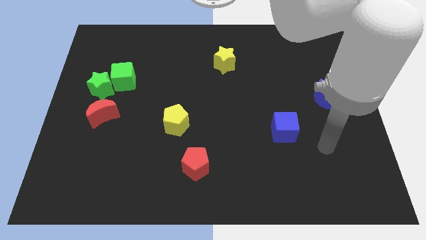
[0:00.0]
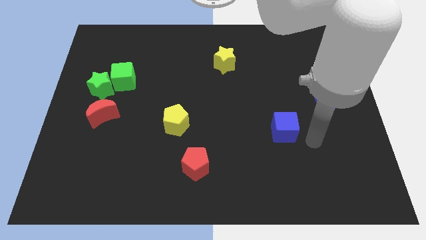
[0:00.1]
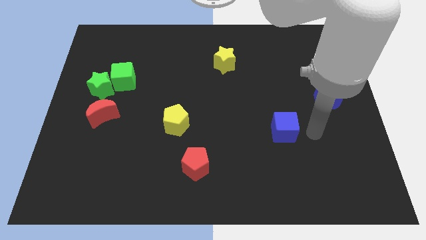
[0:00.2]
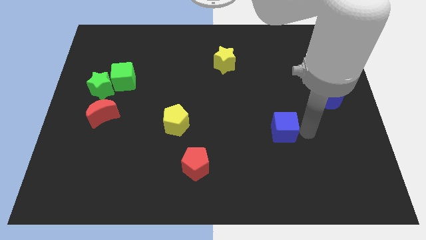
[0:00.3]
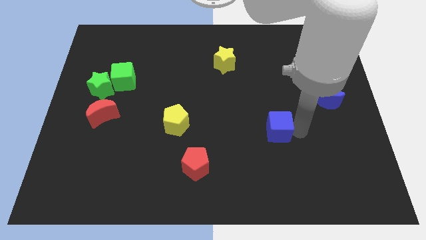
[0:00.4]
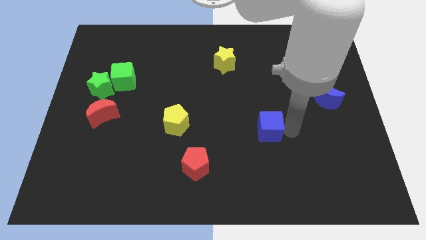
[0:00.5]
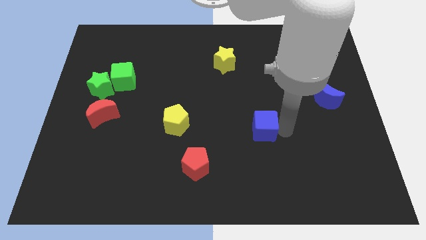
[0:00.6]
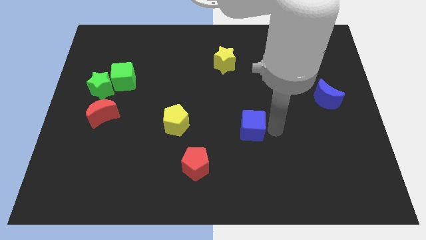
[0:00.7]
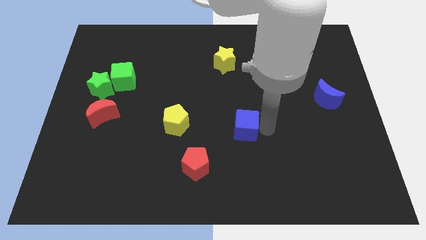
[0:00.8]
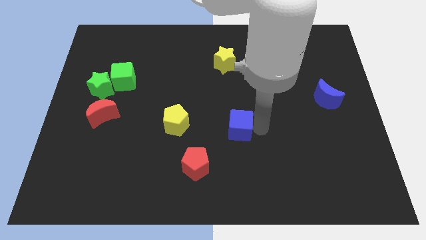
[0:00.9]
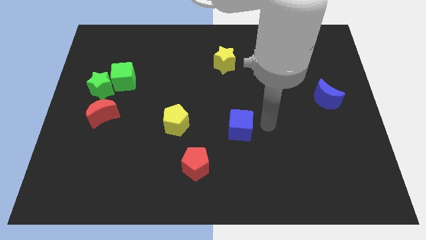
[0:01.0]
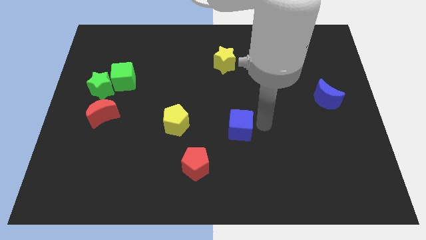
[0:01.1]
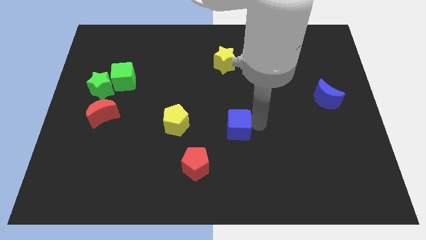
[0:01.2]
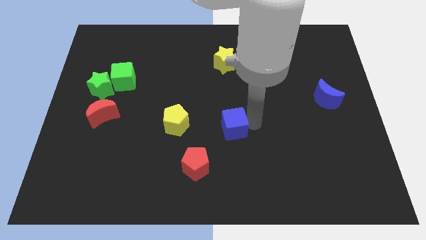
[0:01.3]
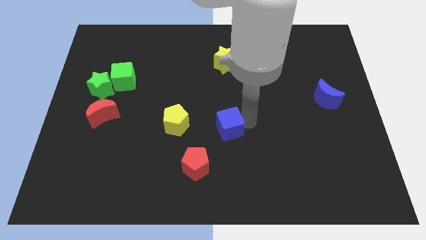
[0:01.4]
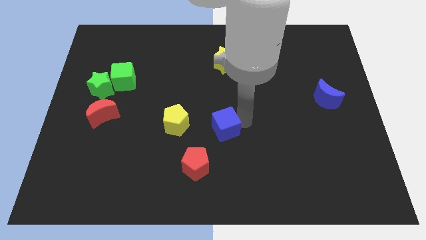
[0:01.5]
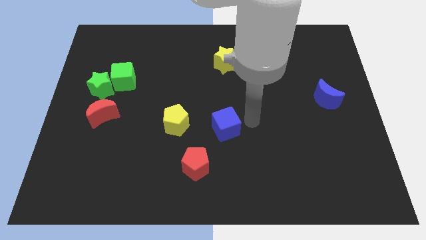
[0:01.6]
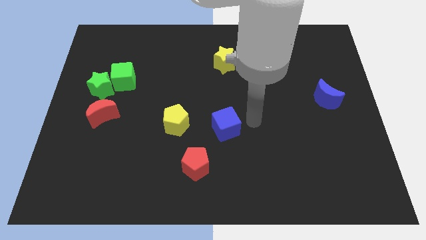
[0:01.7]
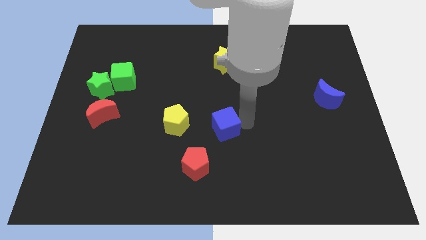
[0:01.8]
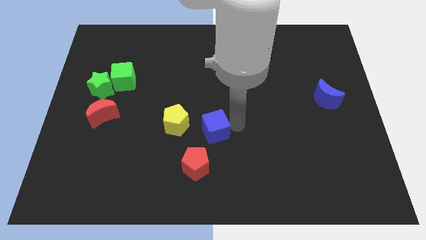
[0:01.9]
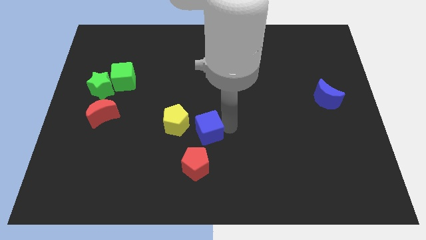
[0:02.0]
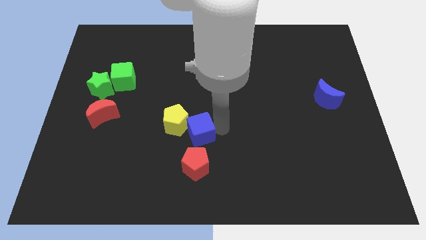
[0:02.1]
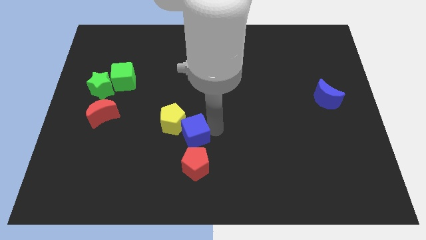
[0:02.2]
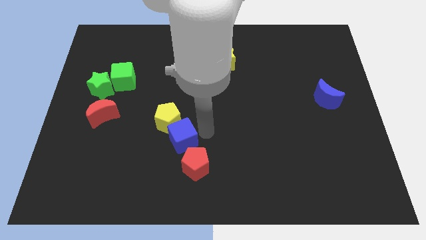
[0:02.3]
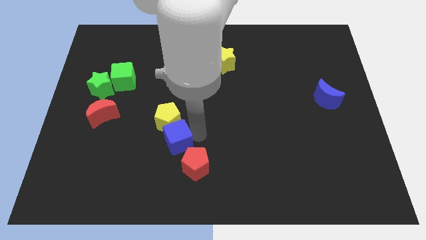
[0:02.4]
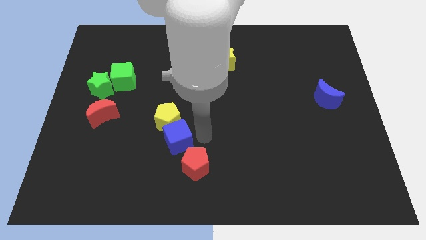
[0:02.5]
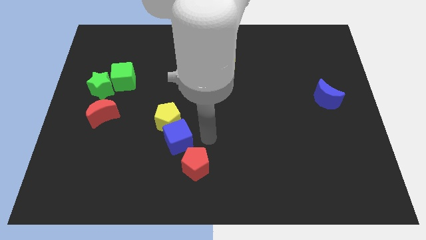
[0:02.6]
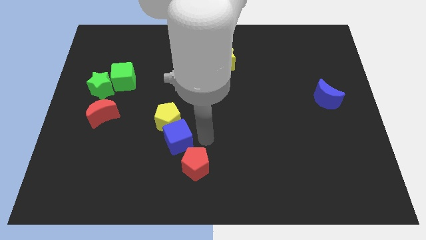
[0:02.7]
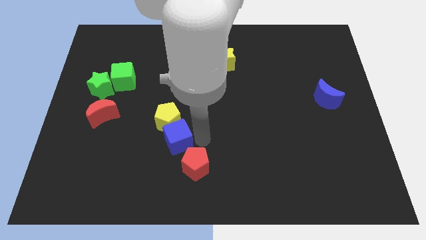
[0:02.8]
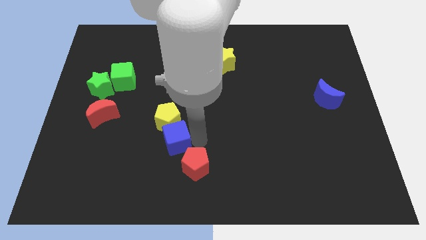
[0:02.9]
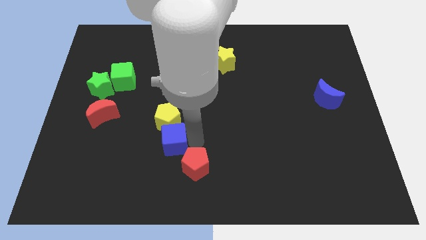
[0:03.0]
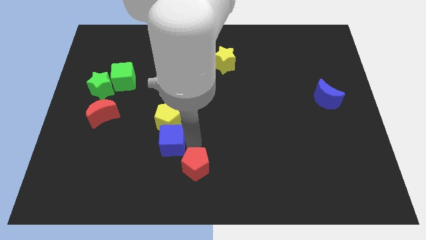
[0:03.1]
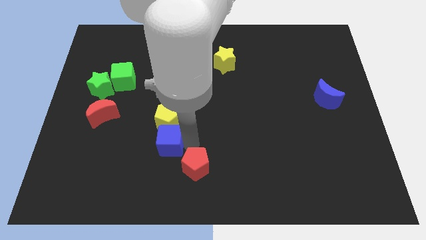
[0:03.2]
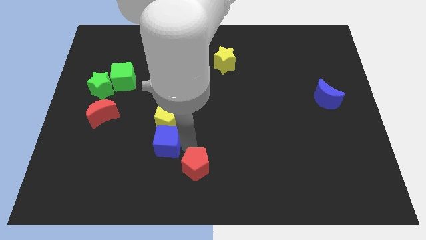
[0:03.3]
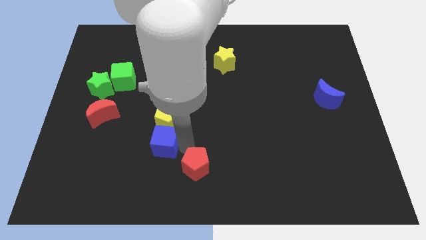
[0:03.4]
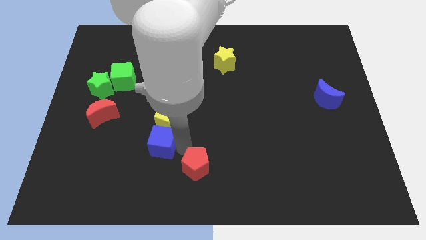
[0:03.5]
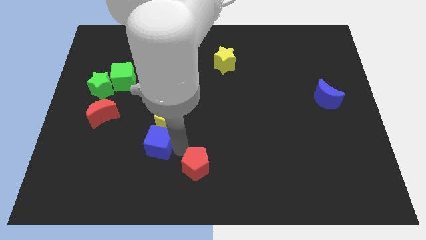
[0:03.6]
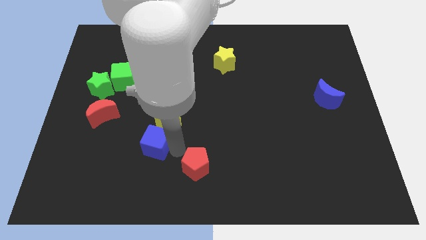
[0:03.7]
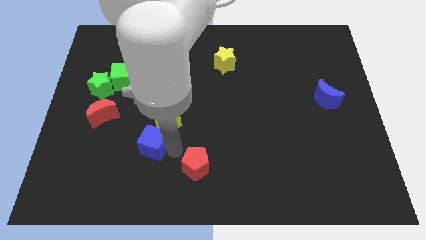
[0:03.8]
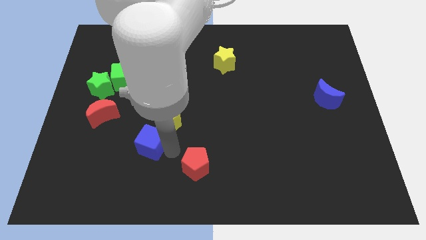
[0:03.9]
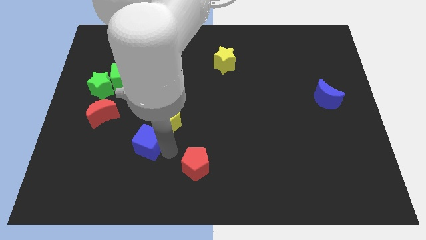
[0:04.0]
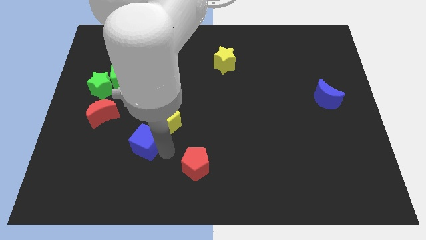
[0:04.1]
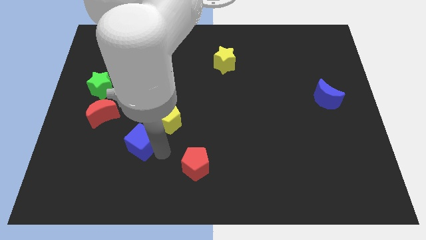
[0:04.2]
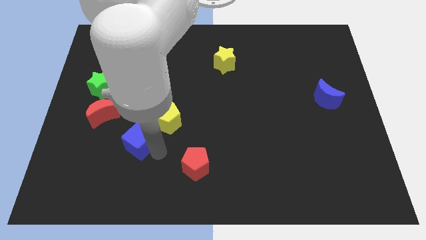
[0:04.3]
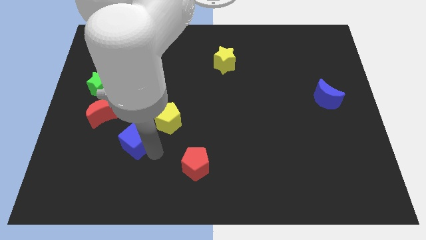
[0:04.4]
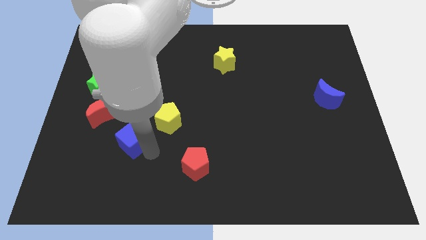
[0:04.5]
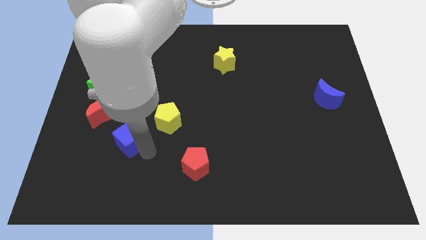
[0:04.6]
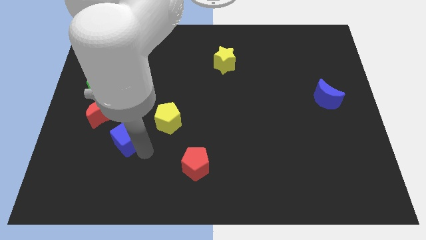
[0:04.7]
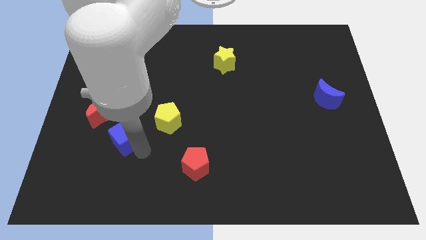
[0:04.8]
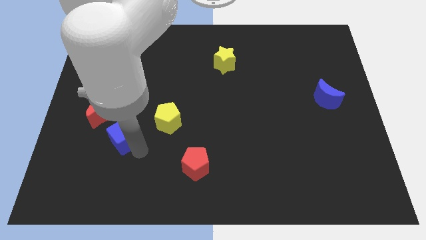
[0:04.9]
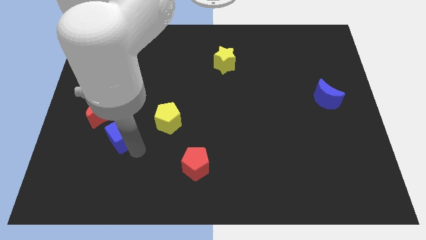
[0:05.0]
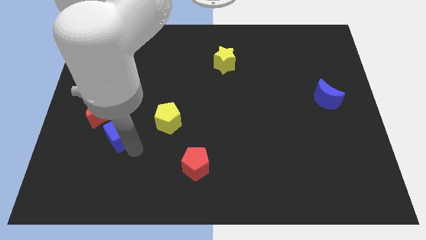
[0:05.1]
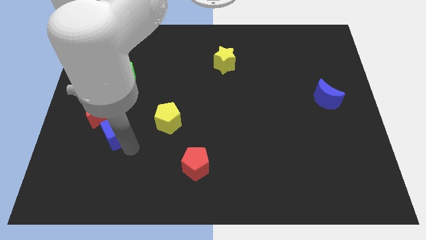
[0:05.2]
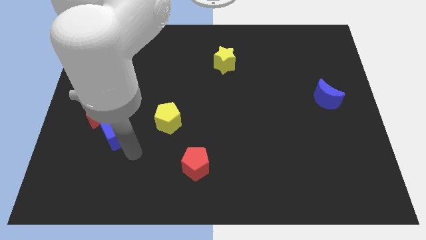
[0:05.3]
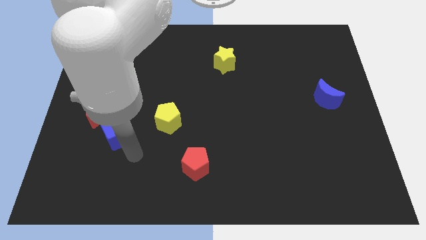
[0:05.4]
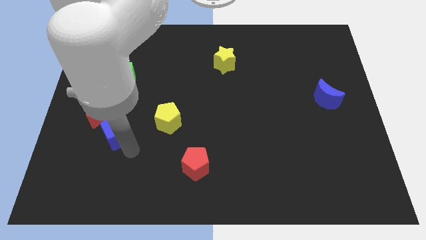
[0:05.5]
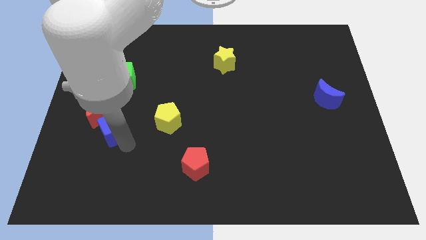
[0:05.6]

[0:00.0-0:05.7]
push the blue cube next to the red moon

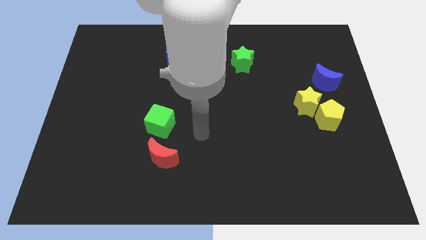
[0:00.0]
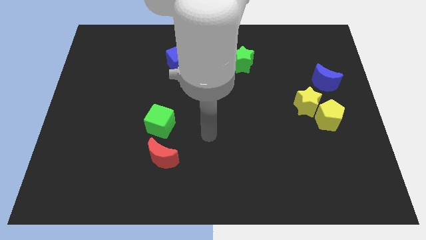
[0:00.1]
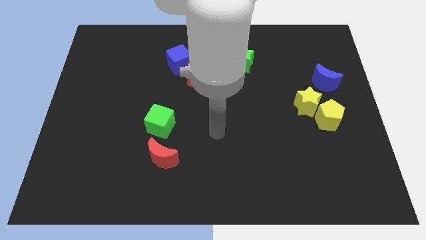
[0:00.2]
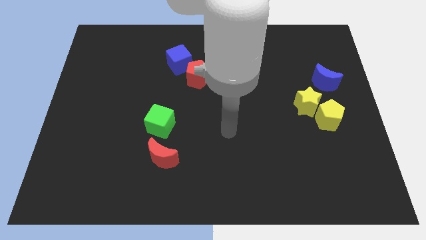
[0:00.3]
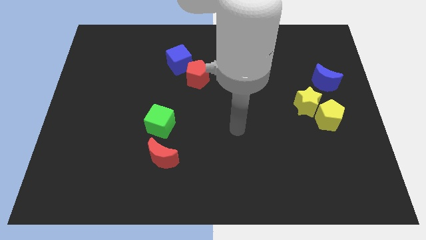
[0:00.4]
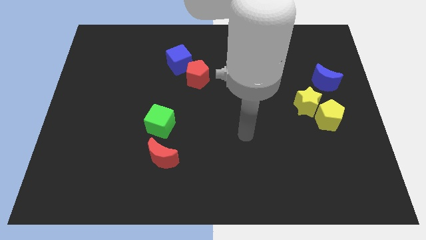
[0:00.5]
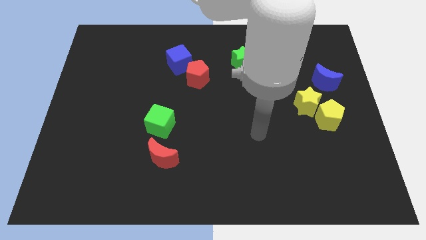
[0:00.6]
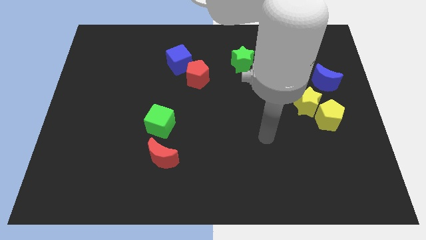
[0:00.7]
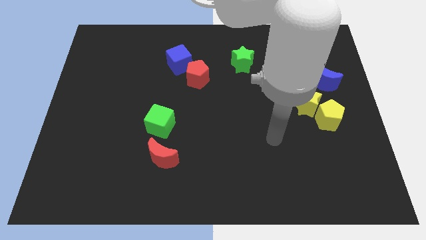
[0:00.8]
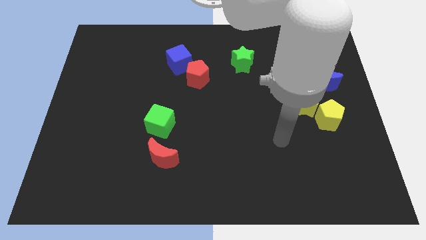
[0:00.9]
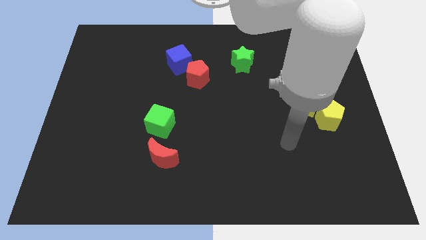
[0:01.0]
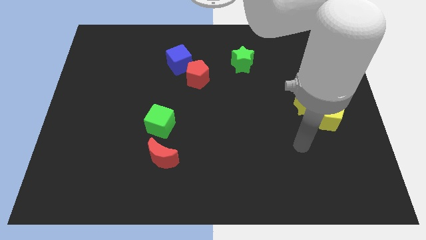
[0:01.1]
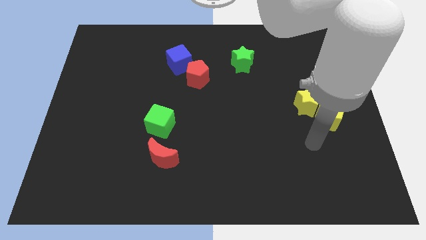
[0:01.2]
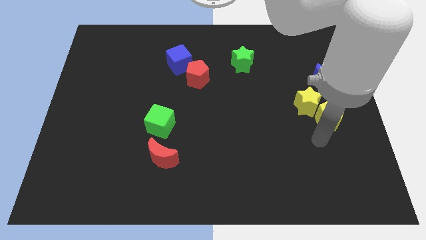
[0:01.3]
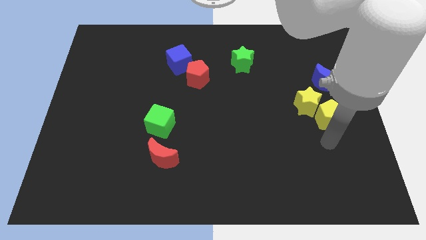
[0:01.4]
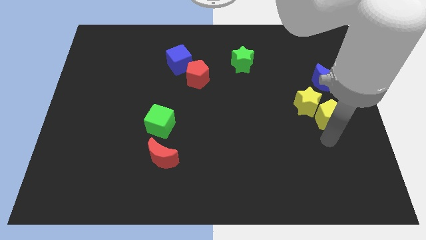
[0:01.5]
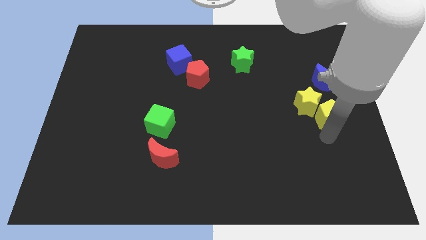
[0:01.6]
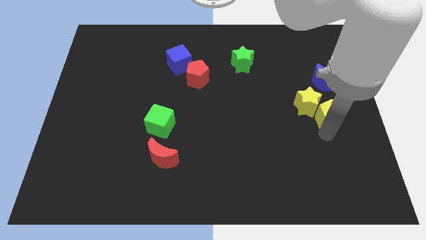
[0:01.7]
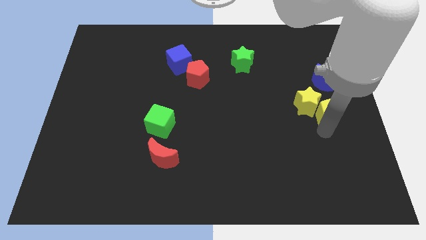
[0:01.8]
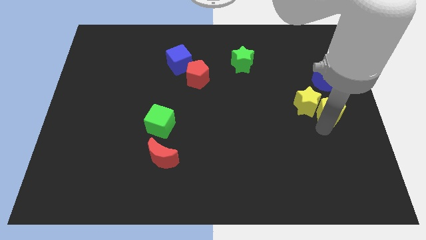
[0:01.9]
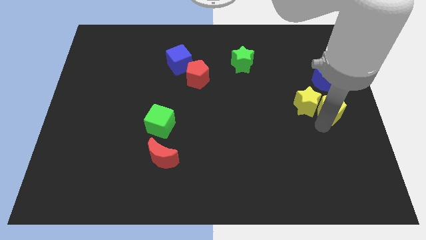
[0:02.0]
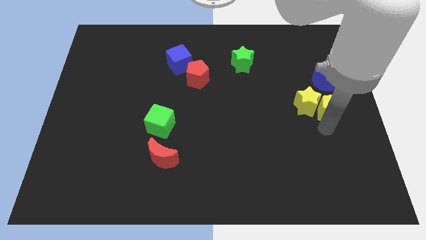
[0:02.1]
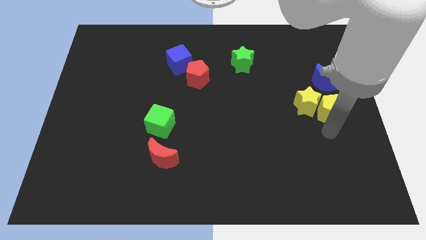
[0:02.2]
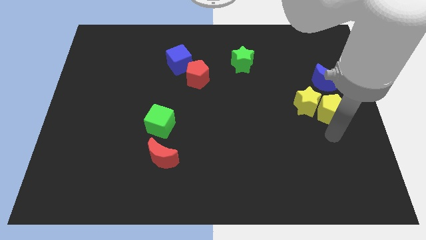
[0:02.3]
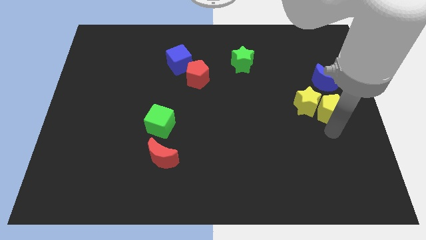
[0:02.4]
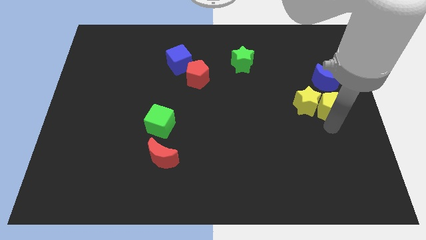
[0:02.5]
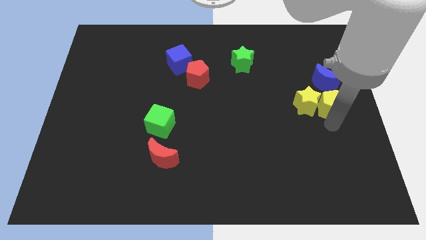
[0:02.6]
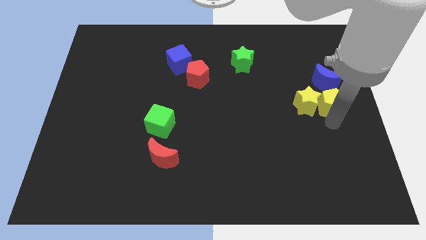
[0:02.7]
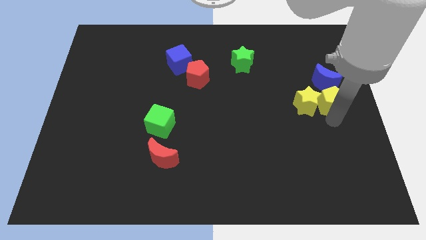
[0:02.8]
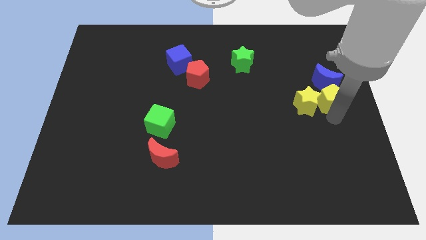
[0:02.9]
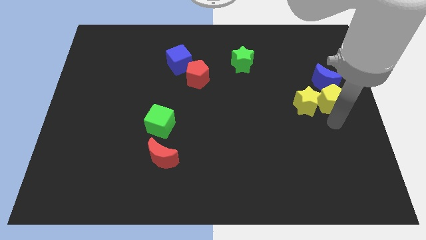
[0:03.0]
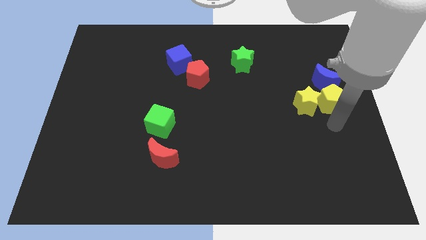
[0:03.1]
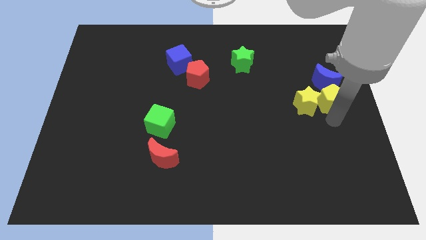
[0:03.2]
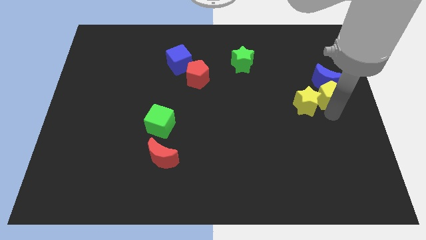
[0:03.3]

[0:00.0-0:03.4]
put the yellow pentagon towards the blue moon
